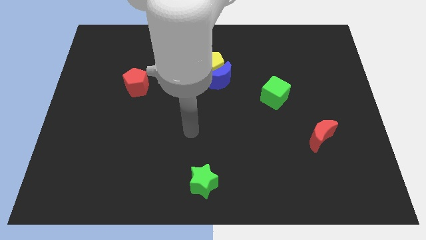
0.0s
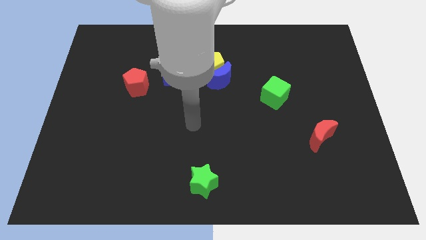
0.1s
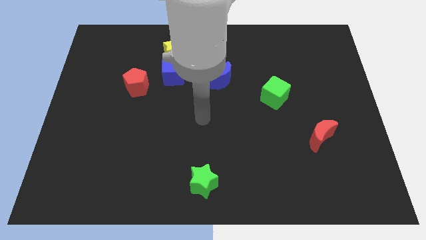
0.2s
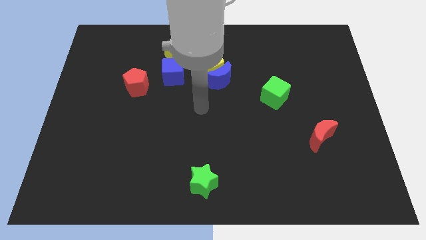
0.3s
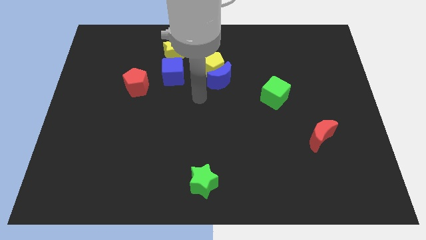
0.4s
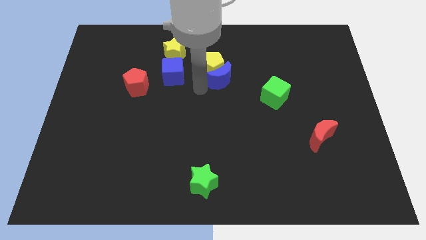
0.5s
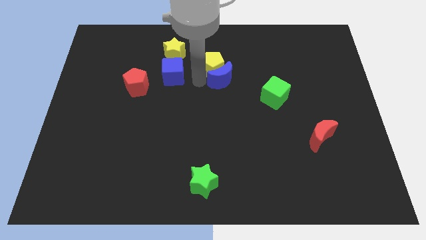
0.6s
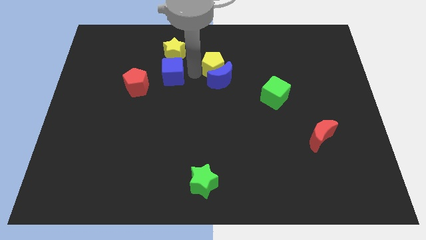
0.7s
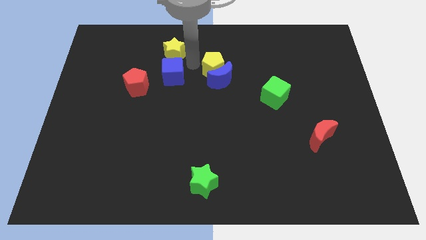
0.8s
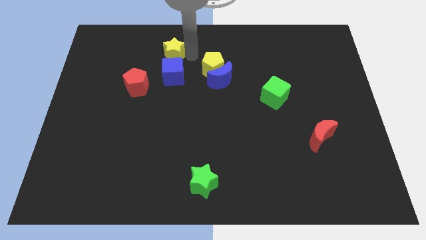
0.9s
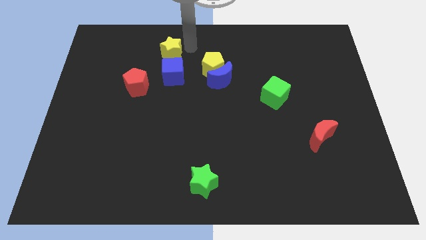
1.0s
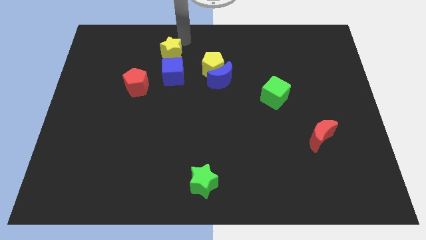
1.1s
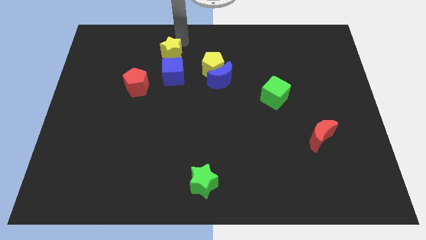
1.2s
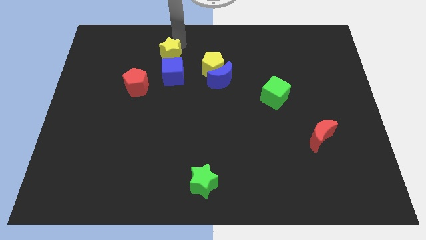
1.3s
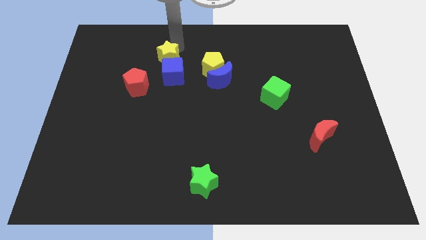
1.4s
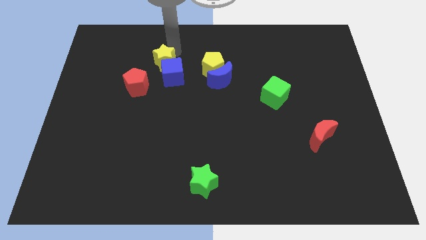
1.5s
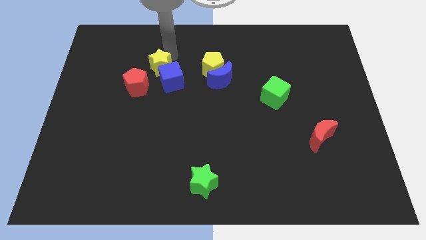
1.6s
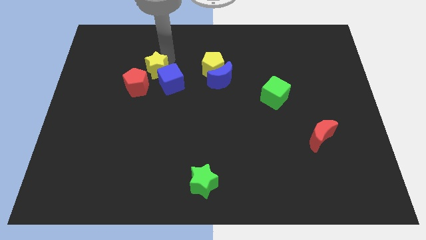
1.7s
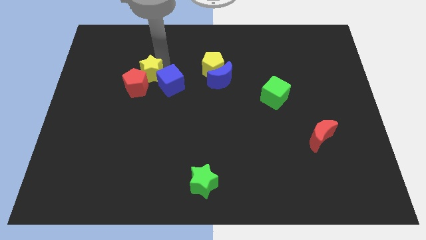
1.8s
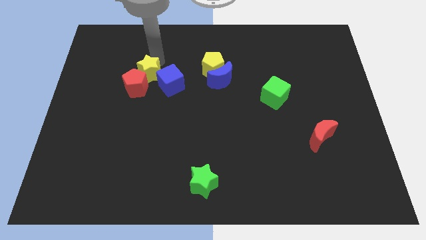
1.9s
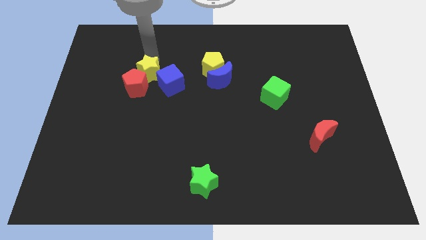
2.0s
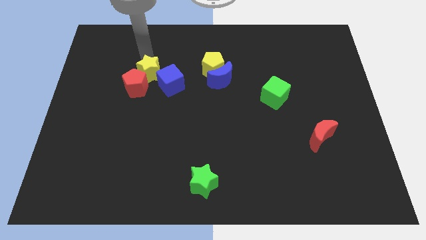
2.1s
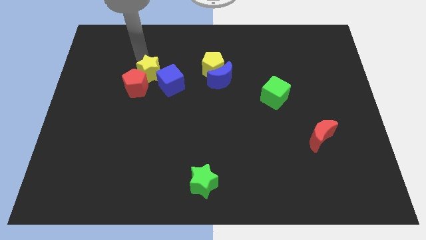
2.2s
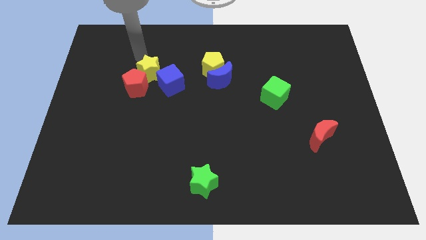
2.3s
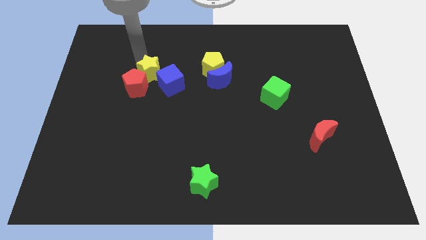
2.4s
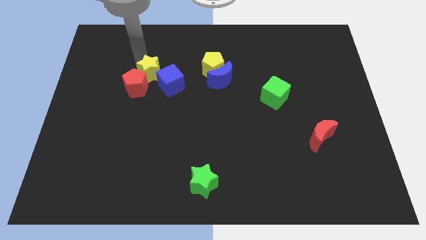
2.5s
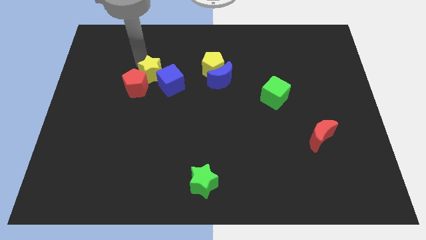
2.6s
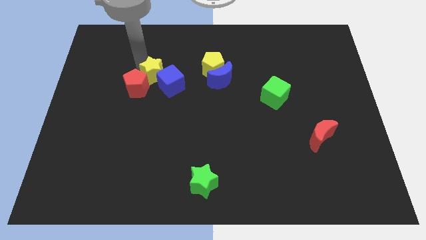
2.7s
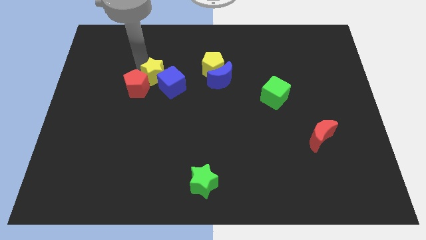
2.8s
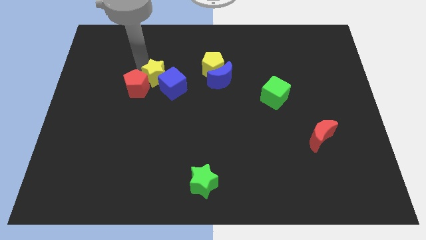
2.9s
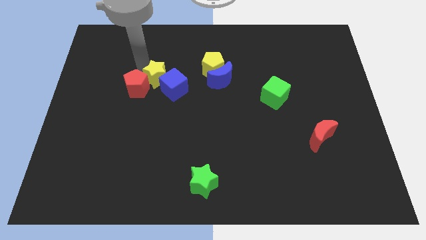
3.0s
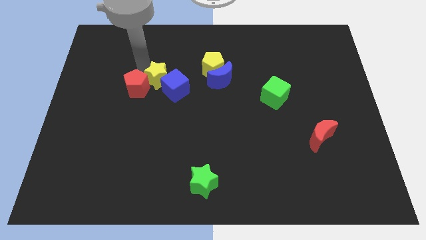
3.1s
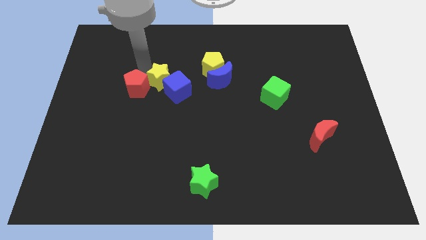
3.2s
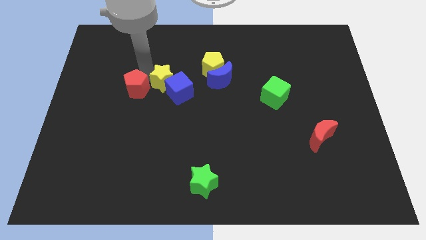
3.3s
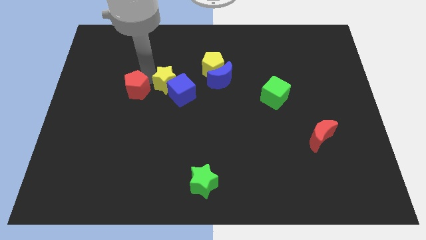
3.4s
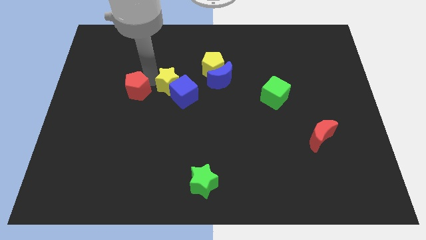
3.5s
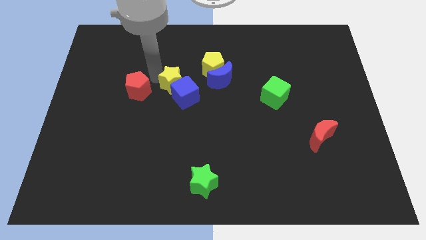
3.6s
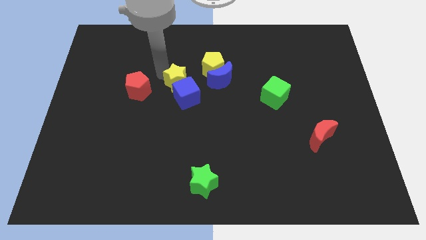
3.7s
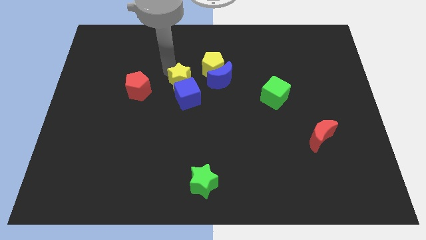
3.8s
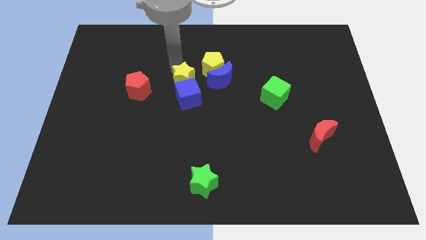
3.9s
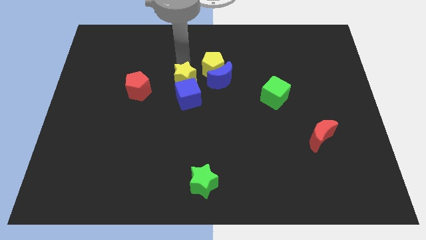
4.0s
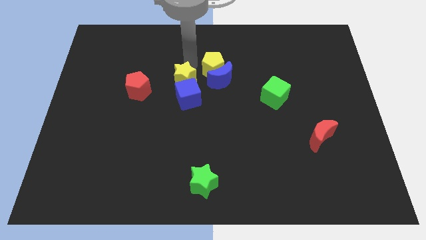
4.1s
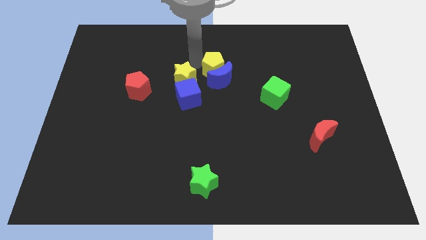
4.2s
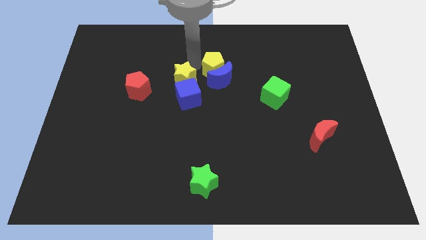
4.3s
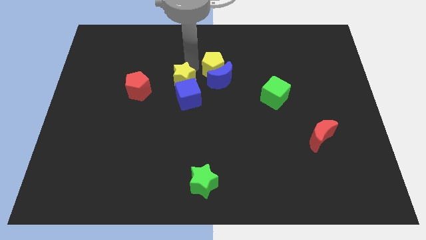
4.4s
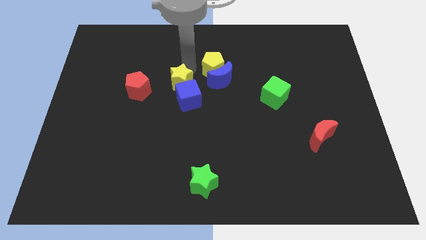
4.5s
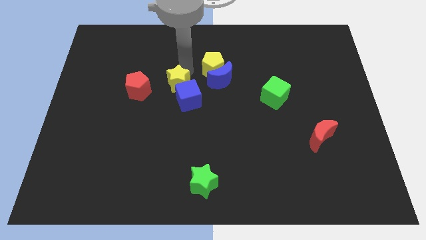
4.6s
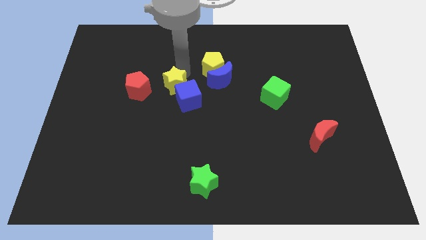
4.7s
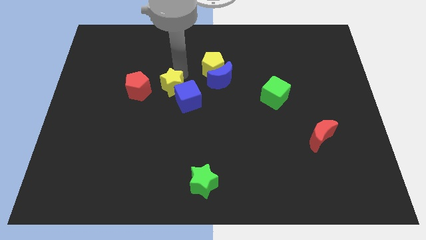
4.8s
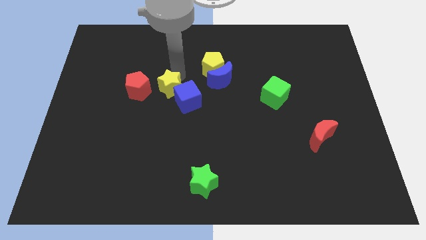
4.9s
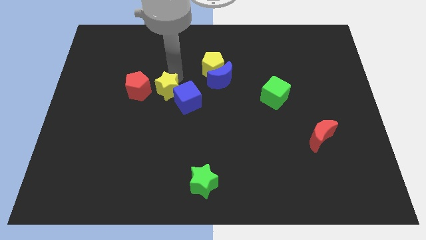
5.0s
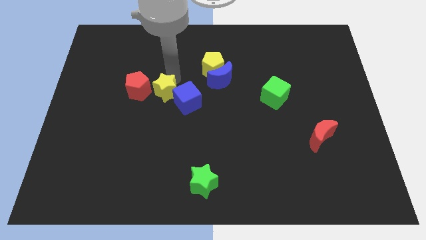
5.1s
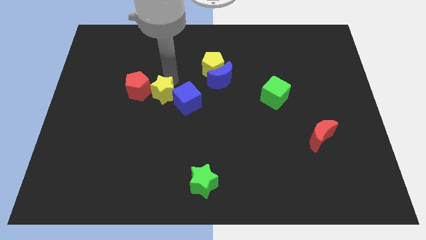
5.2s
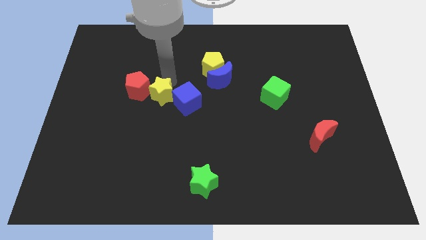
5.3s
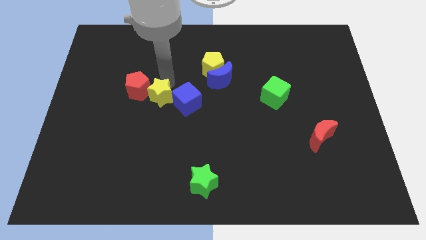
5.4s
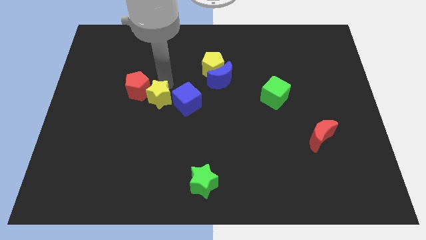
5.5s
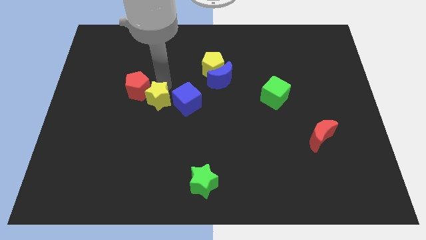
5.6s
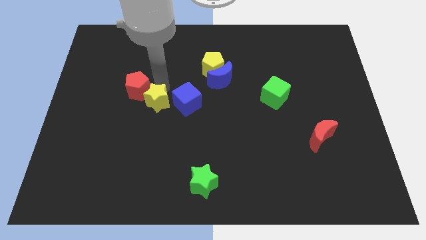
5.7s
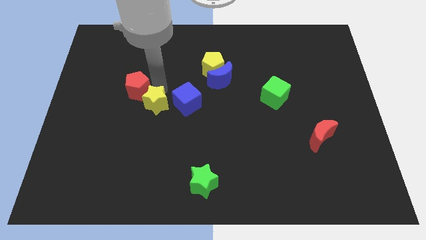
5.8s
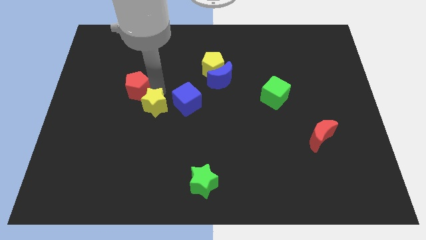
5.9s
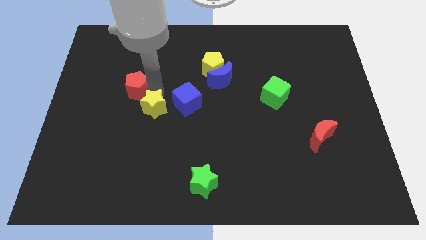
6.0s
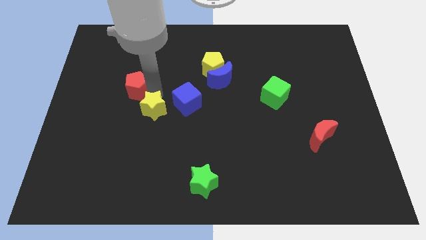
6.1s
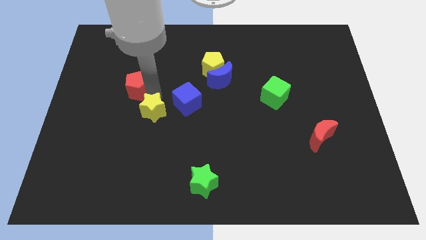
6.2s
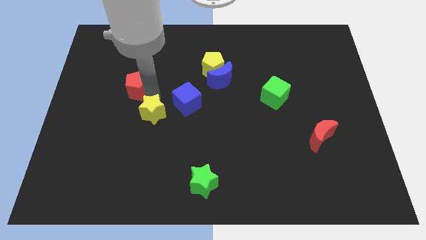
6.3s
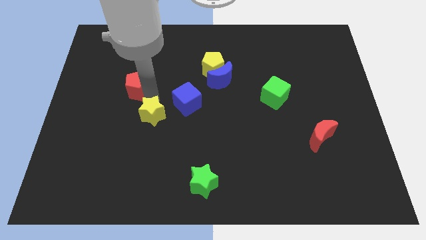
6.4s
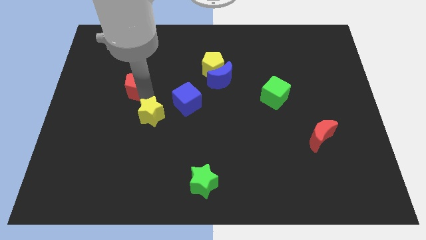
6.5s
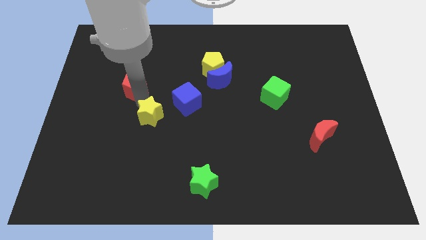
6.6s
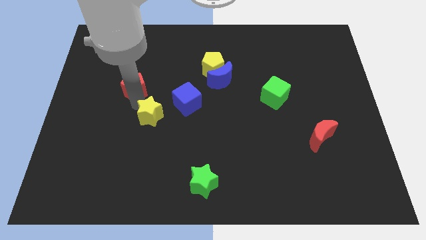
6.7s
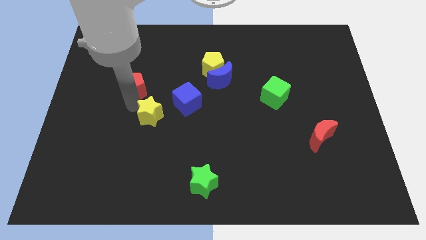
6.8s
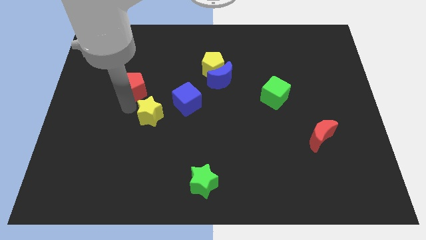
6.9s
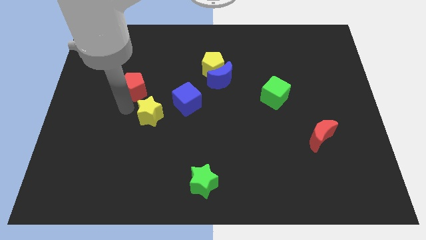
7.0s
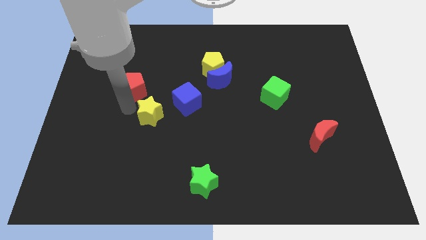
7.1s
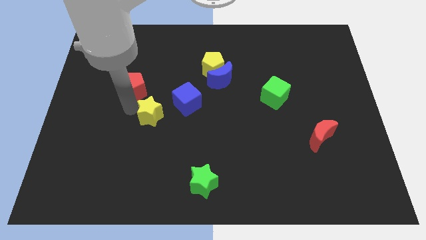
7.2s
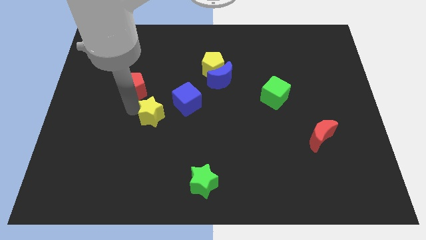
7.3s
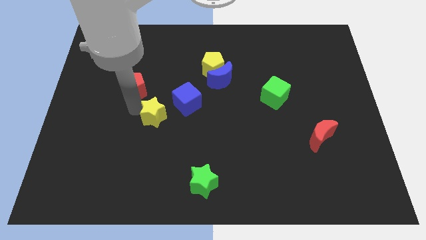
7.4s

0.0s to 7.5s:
move the yellow star down

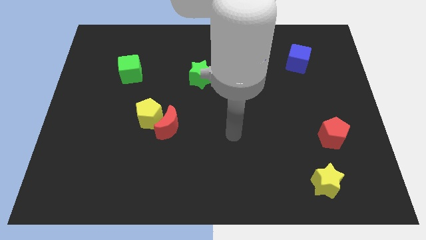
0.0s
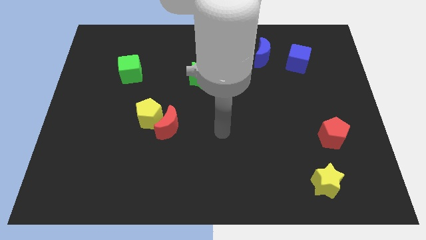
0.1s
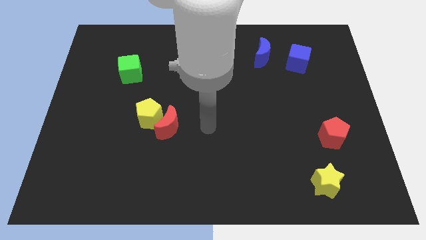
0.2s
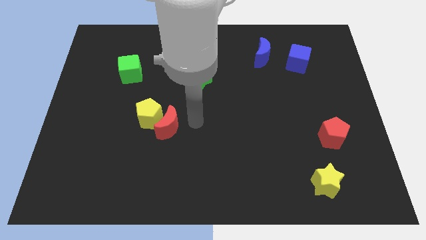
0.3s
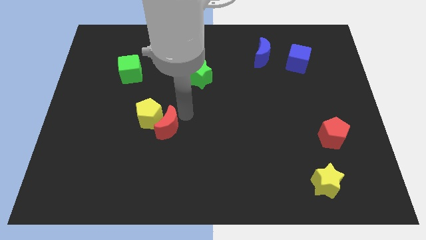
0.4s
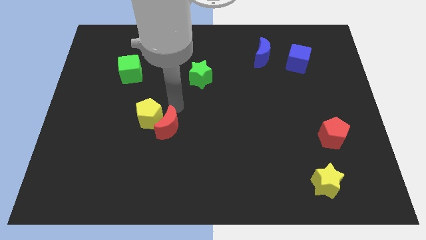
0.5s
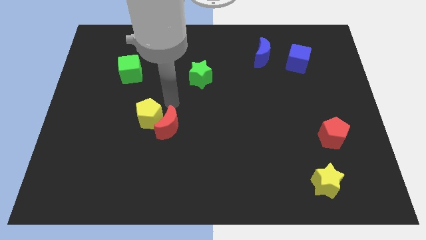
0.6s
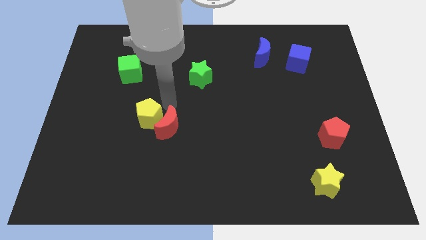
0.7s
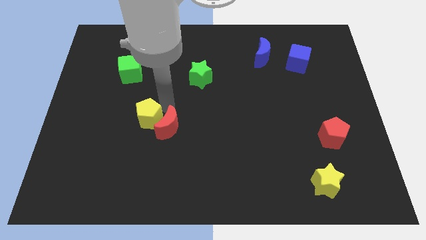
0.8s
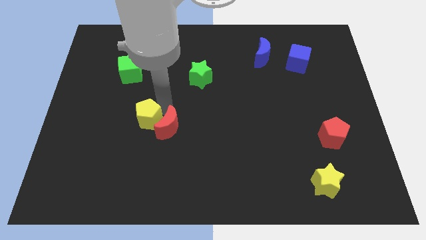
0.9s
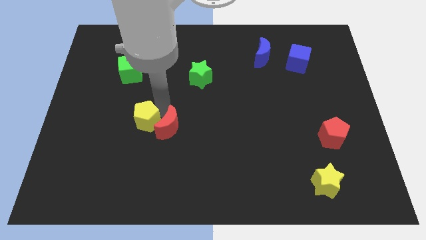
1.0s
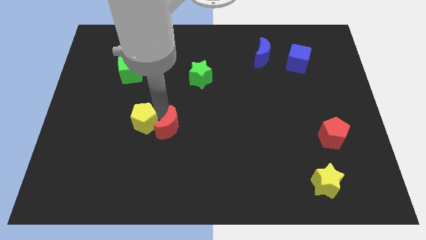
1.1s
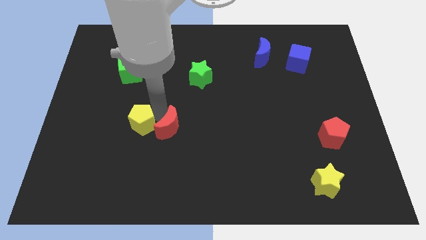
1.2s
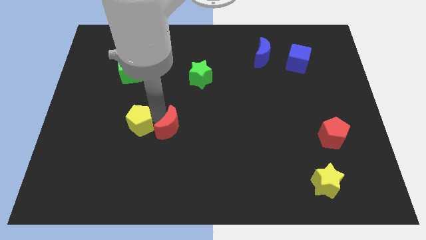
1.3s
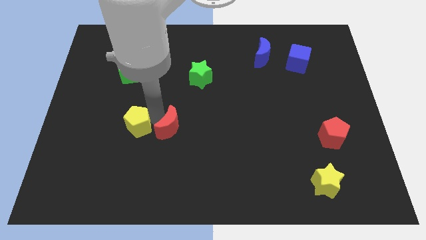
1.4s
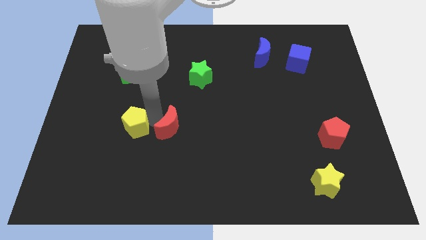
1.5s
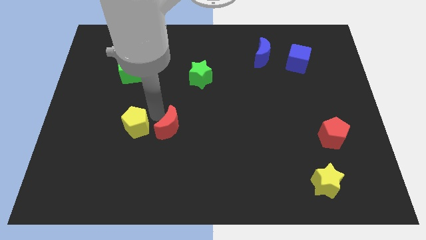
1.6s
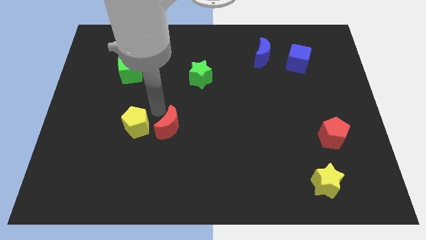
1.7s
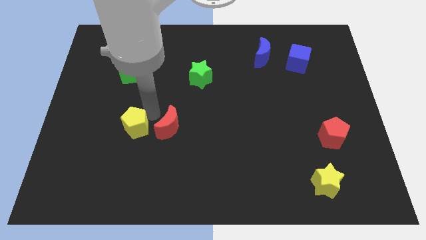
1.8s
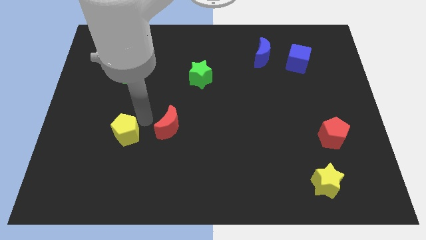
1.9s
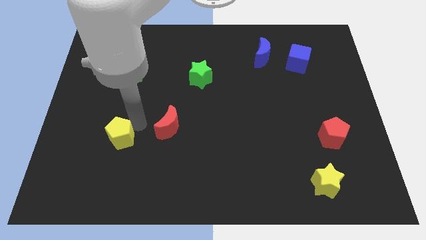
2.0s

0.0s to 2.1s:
push the yellow pentagon a bit downwards and left
